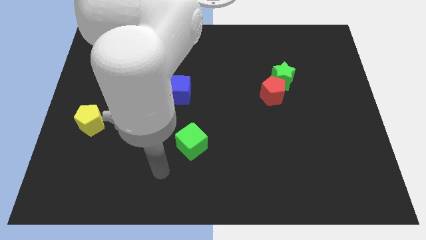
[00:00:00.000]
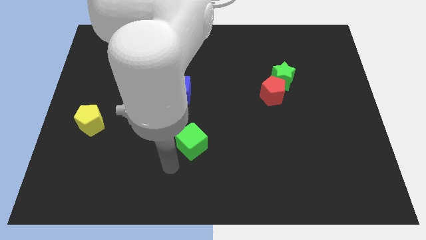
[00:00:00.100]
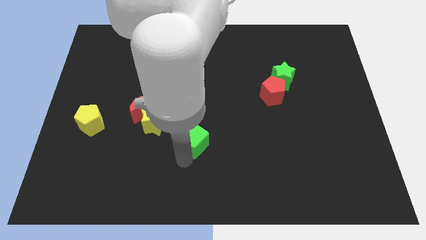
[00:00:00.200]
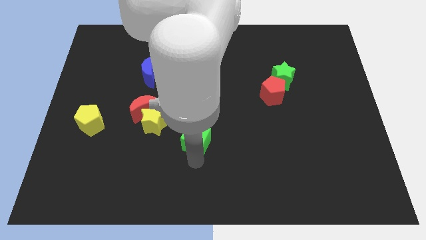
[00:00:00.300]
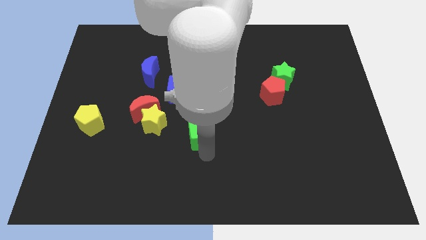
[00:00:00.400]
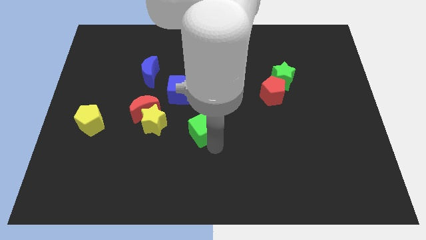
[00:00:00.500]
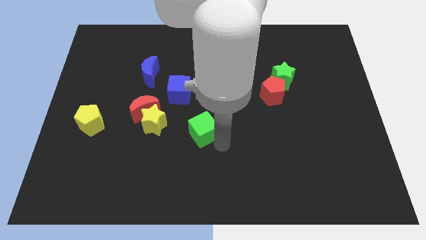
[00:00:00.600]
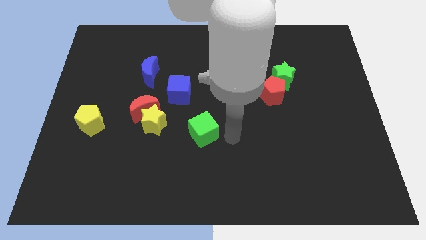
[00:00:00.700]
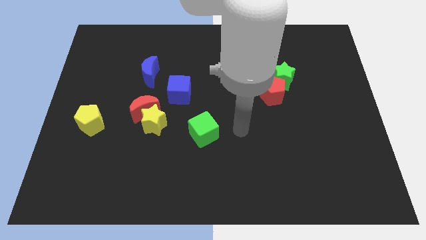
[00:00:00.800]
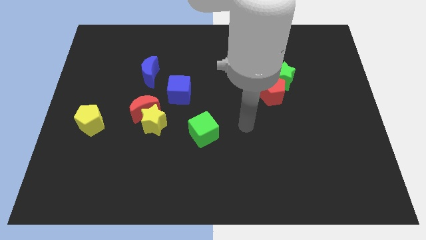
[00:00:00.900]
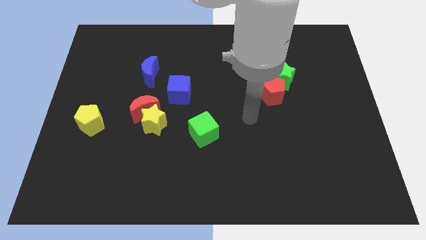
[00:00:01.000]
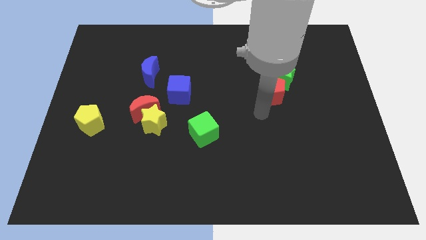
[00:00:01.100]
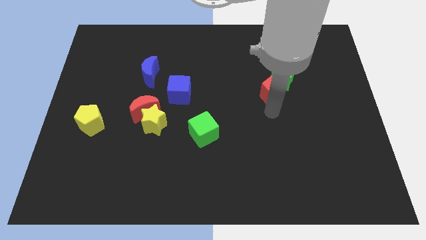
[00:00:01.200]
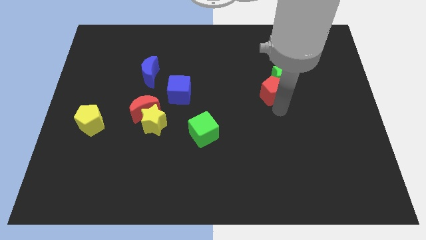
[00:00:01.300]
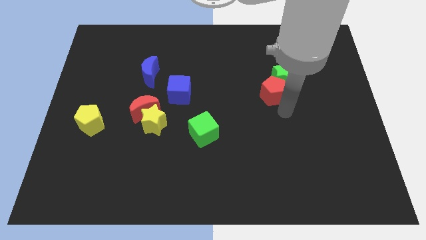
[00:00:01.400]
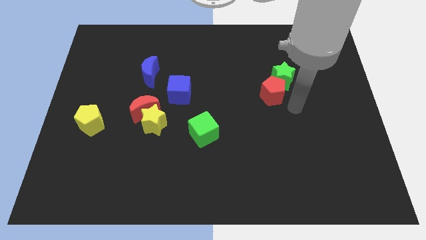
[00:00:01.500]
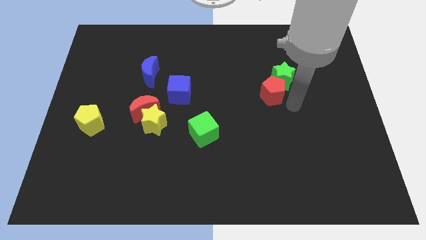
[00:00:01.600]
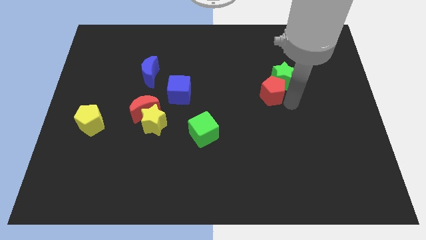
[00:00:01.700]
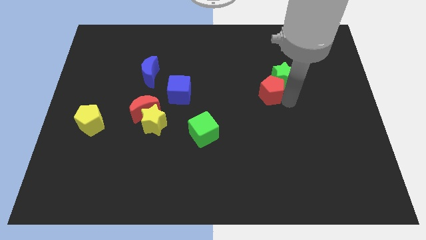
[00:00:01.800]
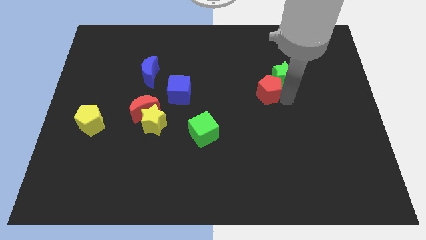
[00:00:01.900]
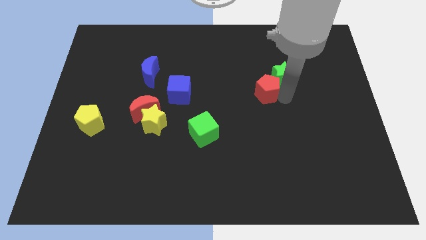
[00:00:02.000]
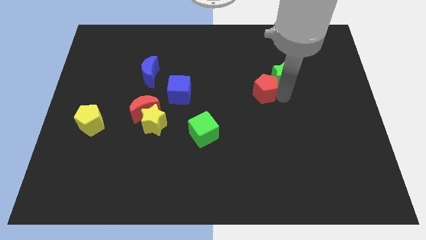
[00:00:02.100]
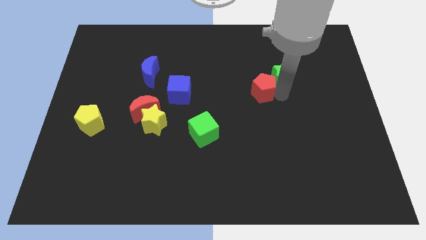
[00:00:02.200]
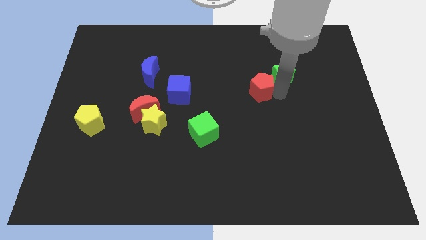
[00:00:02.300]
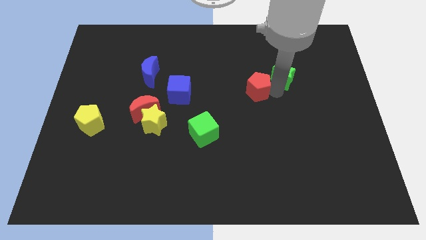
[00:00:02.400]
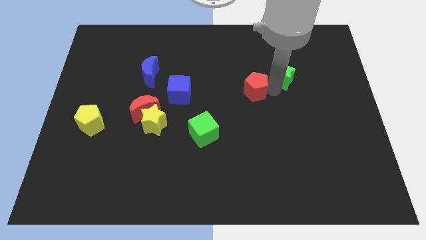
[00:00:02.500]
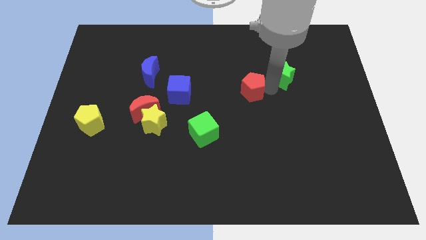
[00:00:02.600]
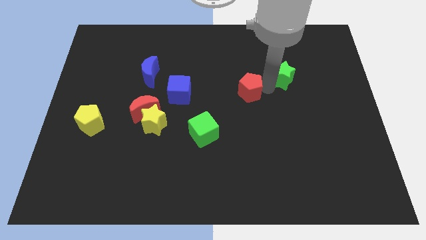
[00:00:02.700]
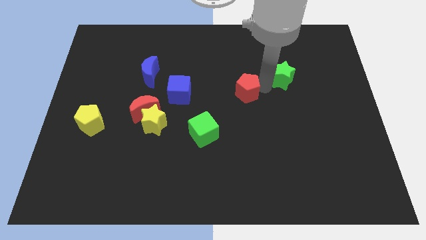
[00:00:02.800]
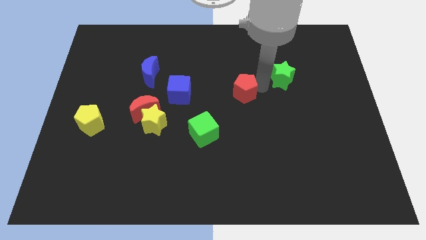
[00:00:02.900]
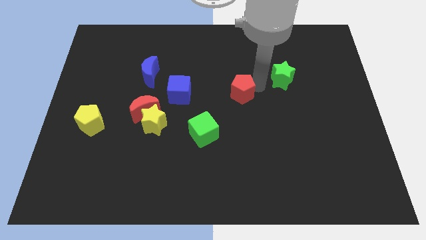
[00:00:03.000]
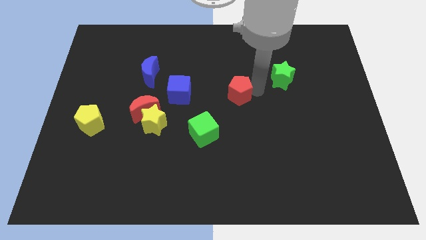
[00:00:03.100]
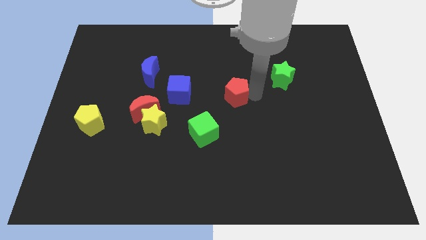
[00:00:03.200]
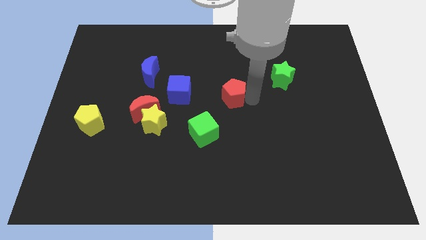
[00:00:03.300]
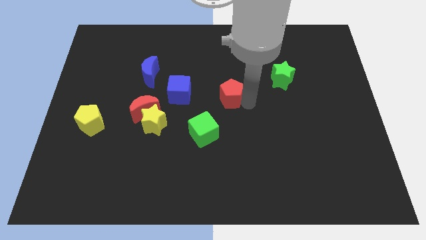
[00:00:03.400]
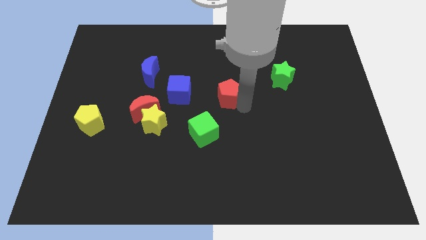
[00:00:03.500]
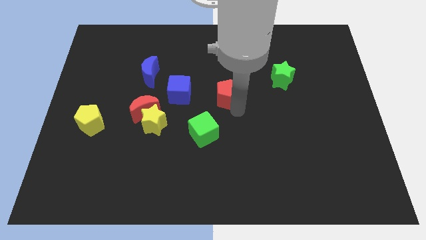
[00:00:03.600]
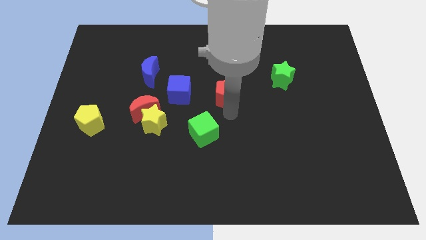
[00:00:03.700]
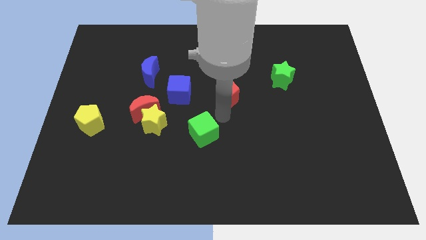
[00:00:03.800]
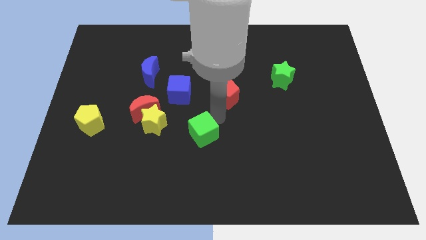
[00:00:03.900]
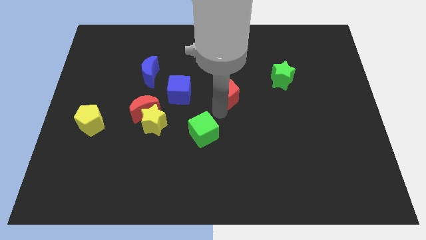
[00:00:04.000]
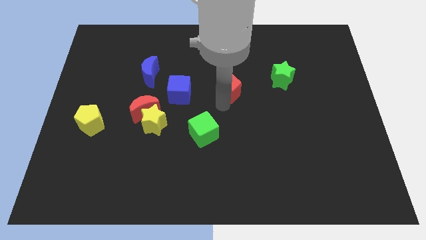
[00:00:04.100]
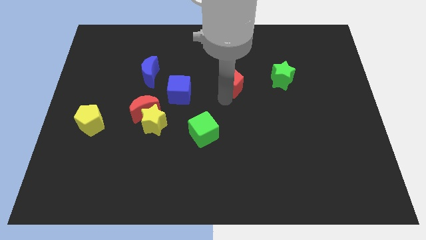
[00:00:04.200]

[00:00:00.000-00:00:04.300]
slide the red pentagon up and left diagonally a bit

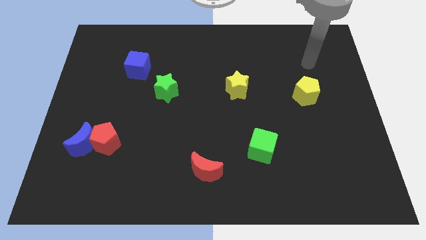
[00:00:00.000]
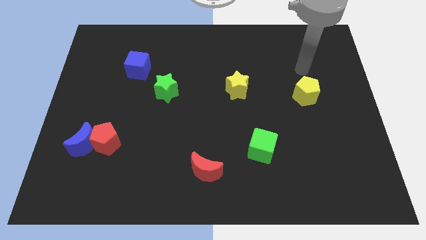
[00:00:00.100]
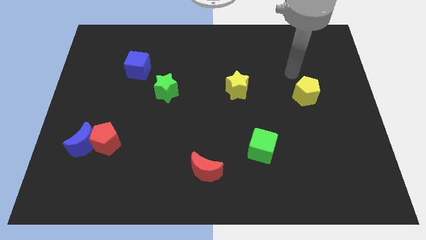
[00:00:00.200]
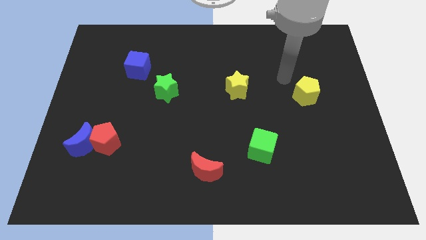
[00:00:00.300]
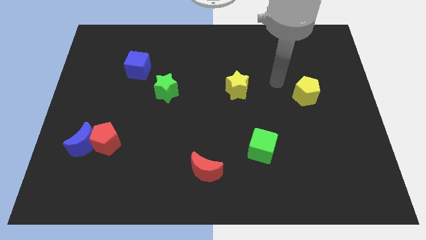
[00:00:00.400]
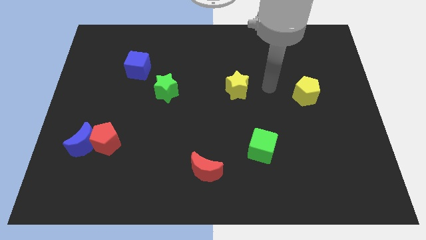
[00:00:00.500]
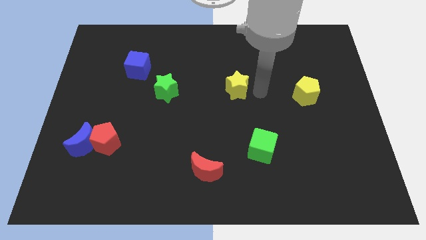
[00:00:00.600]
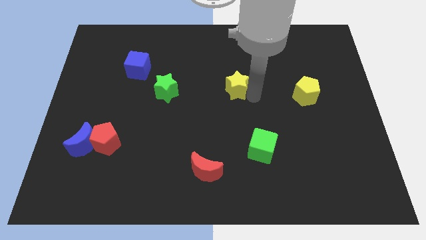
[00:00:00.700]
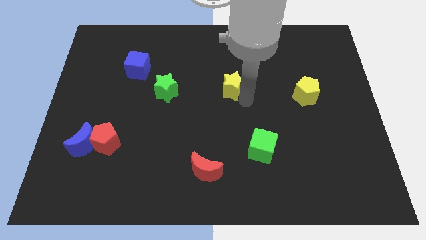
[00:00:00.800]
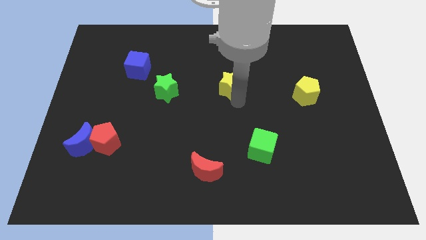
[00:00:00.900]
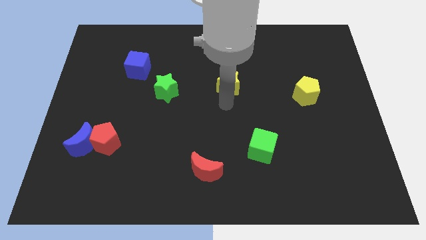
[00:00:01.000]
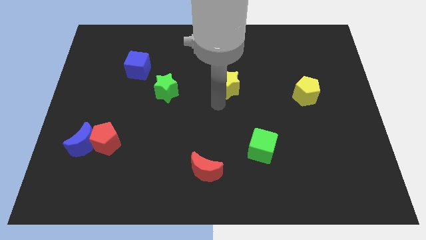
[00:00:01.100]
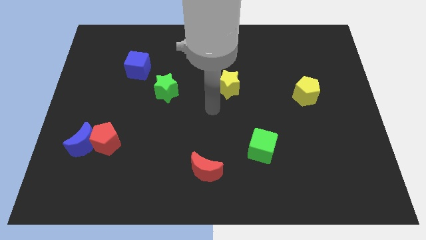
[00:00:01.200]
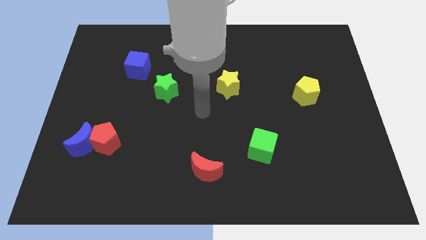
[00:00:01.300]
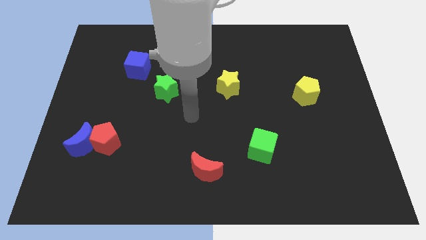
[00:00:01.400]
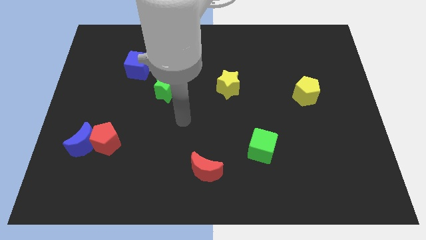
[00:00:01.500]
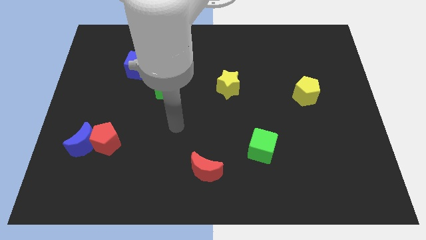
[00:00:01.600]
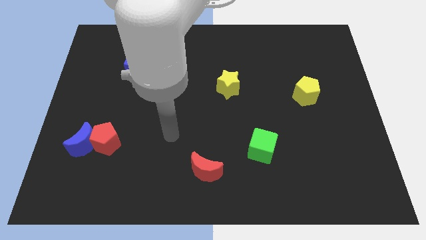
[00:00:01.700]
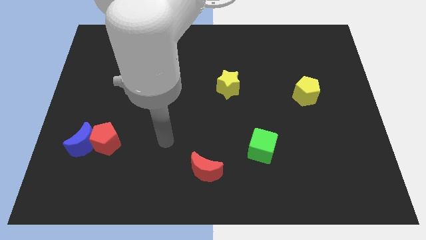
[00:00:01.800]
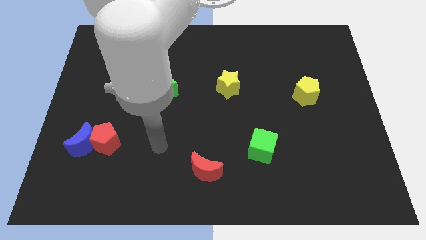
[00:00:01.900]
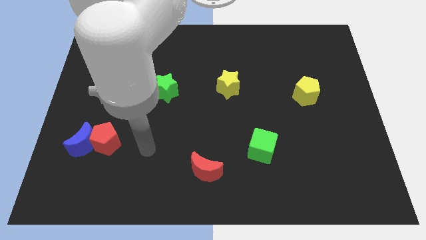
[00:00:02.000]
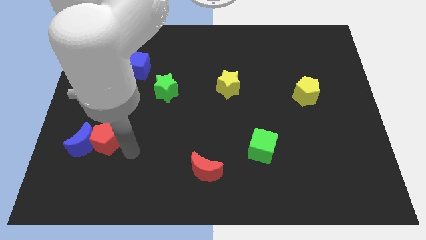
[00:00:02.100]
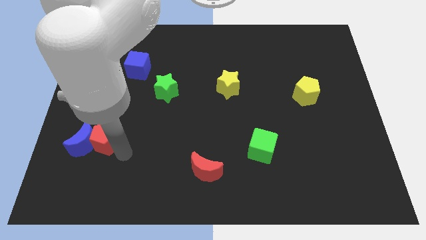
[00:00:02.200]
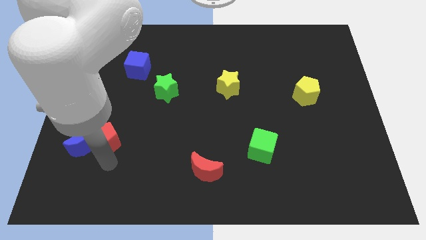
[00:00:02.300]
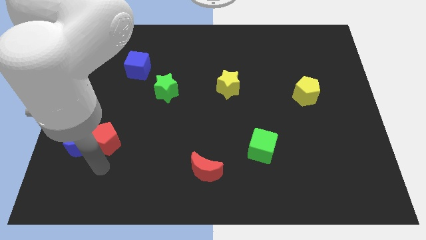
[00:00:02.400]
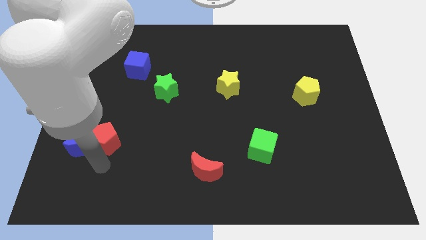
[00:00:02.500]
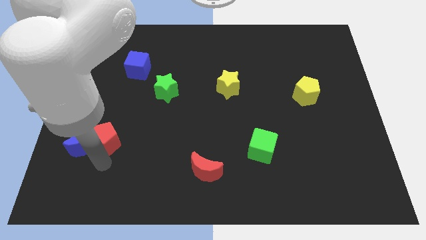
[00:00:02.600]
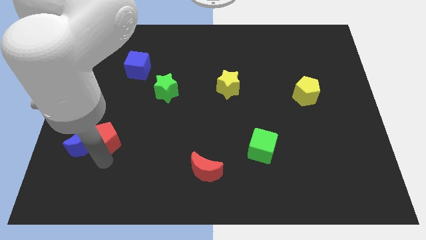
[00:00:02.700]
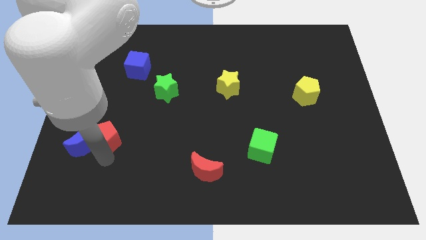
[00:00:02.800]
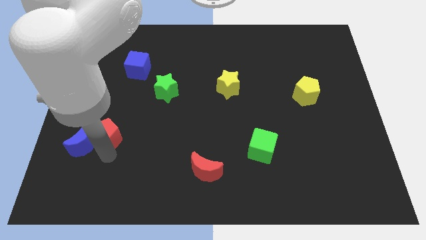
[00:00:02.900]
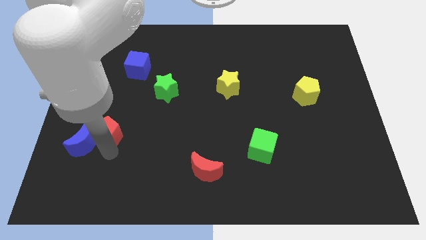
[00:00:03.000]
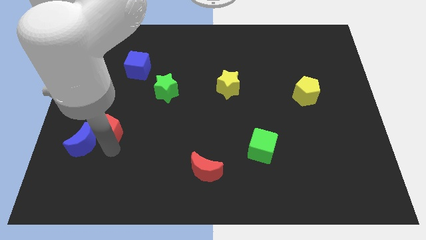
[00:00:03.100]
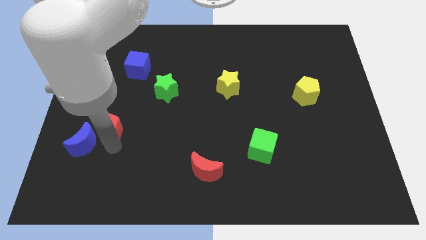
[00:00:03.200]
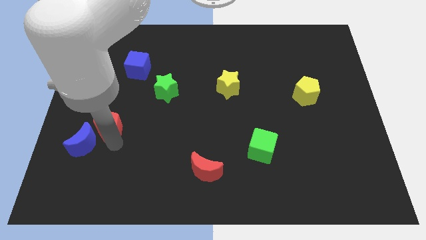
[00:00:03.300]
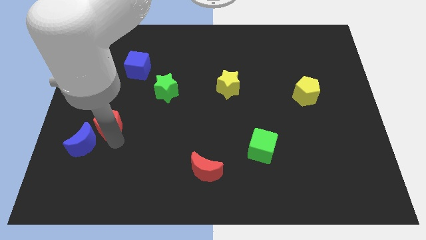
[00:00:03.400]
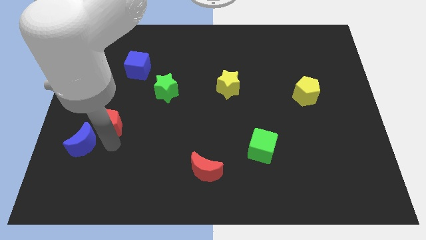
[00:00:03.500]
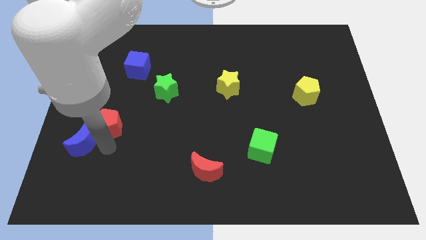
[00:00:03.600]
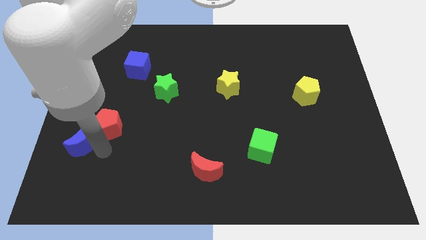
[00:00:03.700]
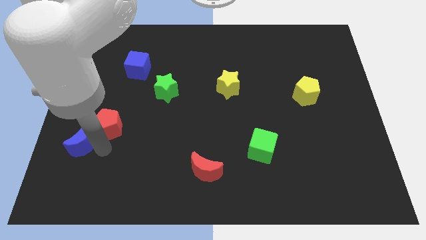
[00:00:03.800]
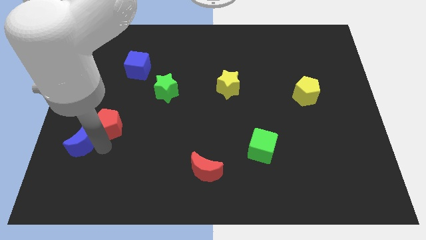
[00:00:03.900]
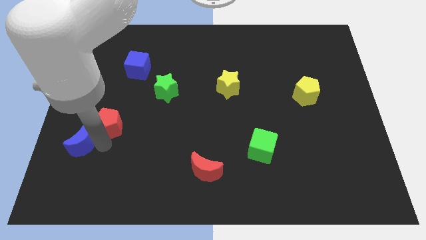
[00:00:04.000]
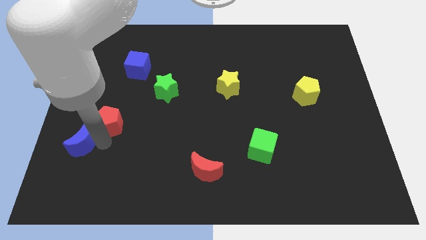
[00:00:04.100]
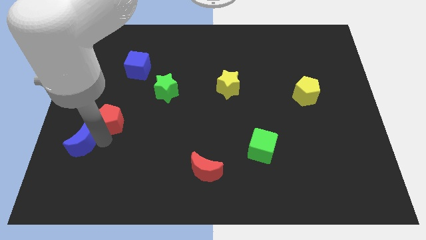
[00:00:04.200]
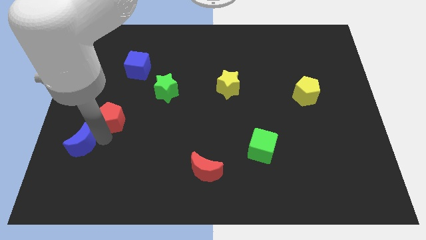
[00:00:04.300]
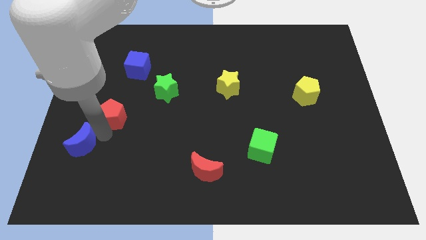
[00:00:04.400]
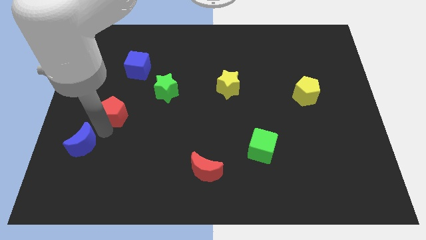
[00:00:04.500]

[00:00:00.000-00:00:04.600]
slide the red pentagon somewhat up
